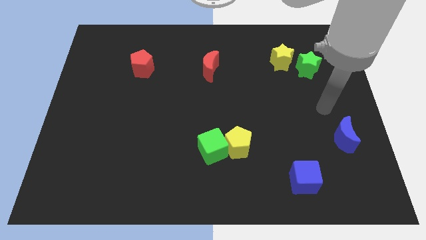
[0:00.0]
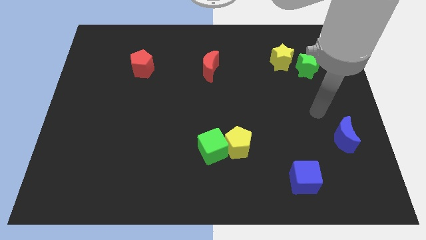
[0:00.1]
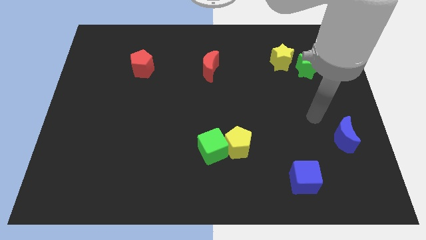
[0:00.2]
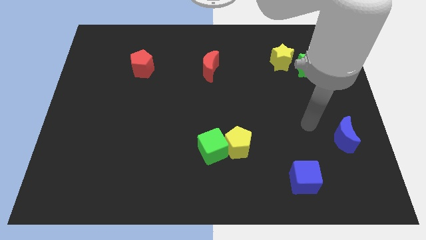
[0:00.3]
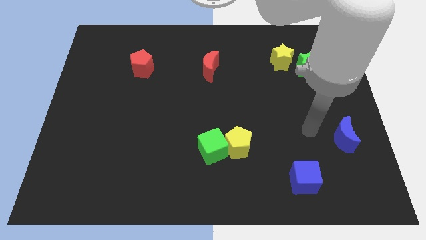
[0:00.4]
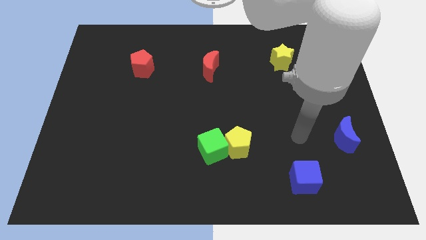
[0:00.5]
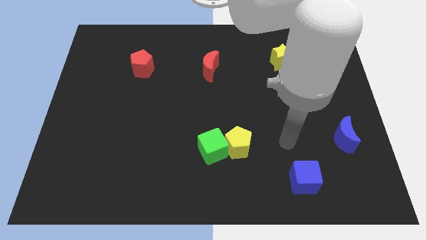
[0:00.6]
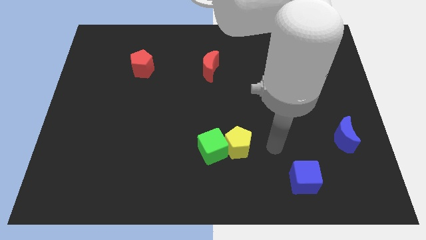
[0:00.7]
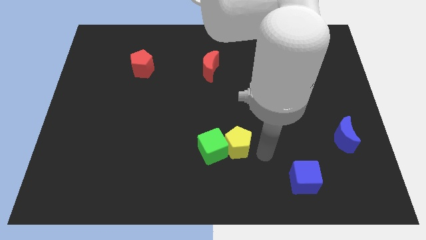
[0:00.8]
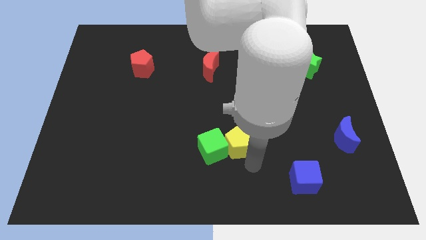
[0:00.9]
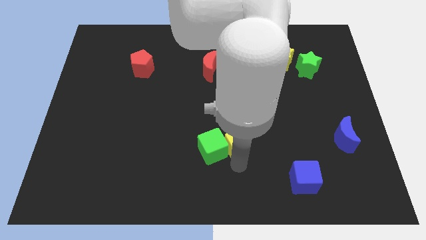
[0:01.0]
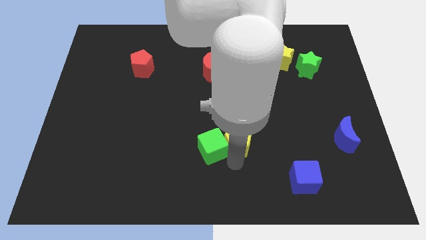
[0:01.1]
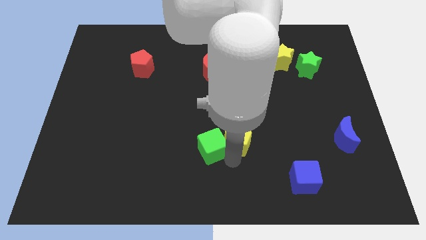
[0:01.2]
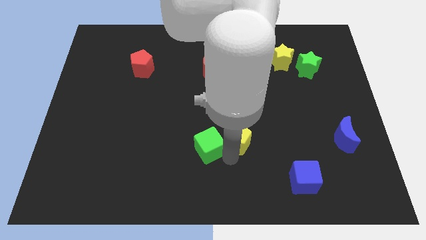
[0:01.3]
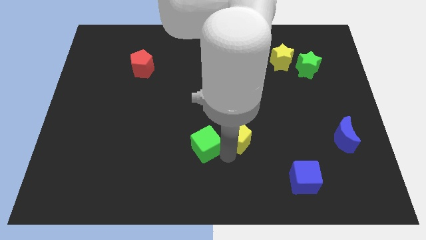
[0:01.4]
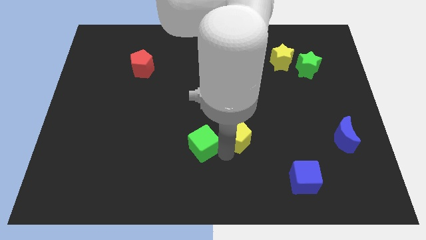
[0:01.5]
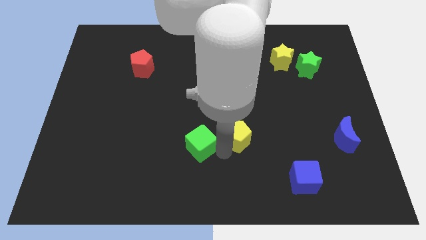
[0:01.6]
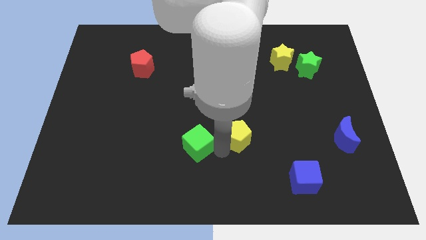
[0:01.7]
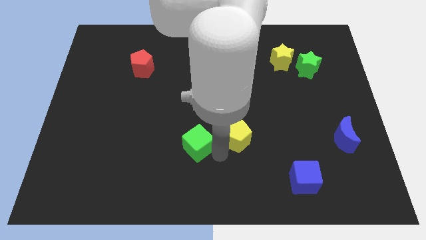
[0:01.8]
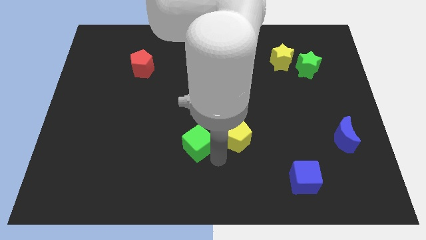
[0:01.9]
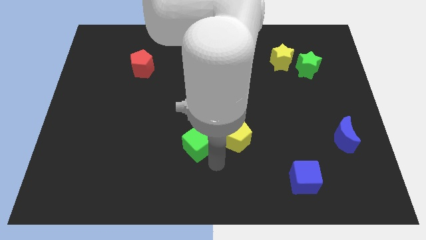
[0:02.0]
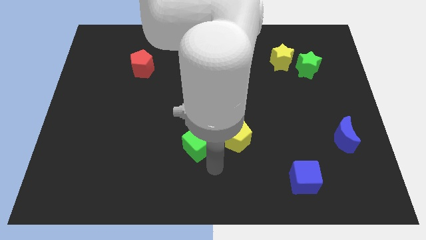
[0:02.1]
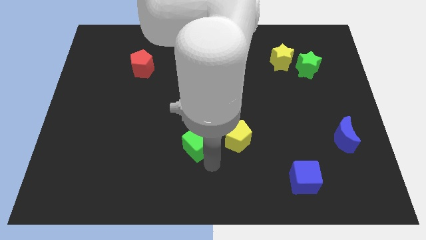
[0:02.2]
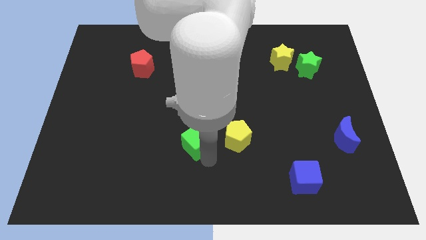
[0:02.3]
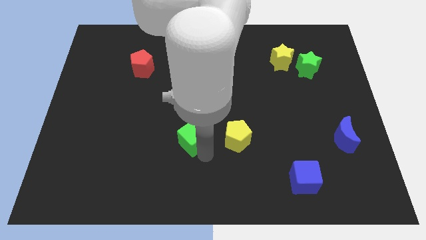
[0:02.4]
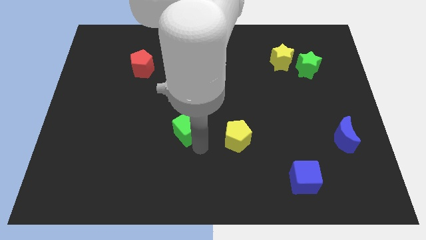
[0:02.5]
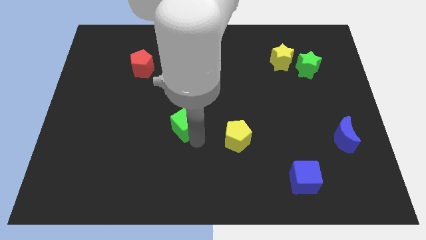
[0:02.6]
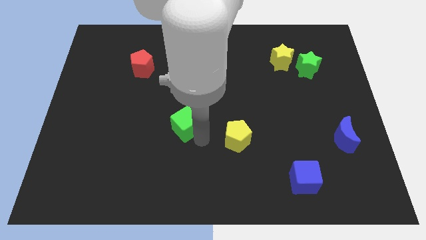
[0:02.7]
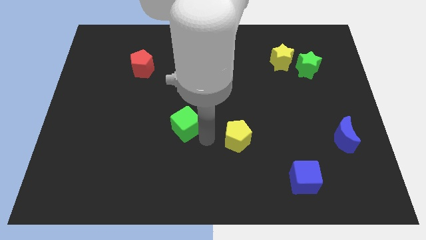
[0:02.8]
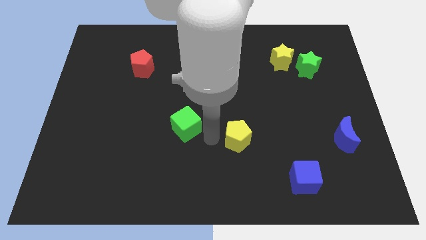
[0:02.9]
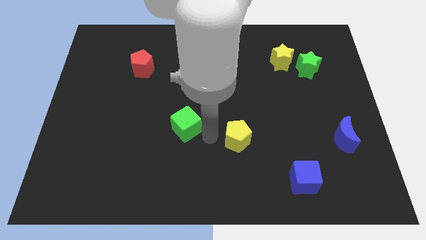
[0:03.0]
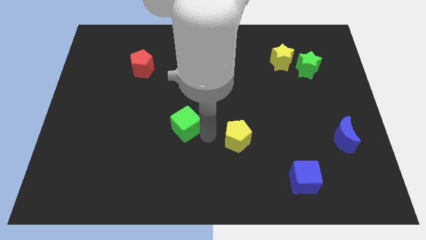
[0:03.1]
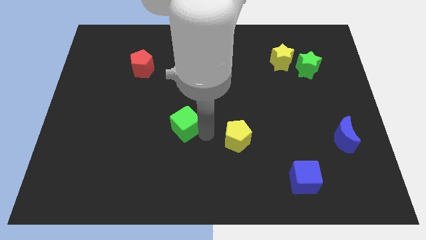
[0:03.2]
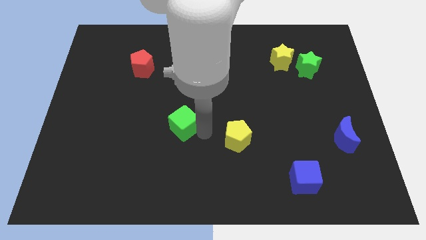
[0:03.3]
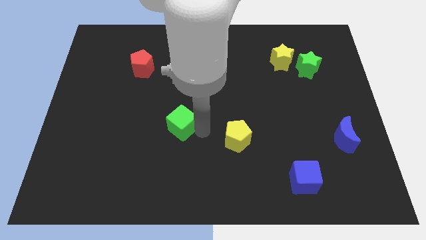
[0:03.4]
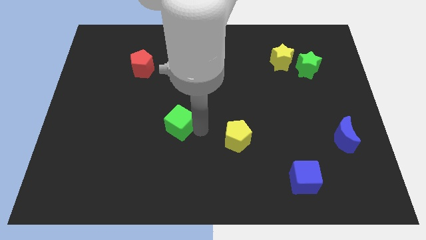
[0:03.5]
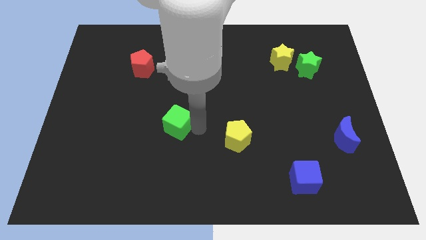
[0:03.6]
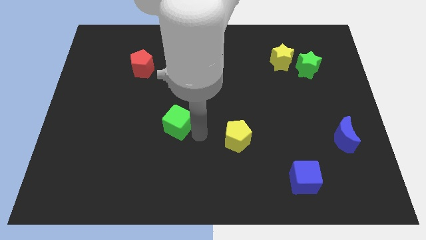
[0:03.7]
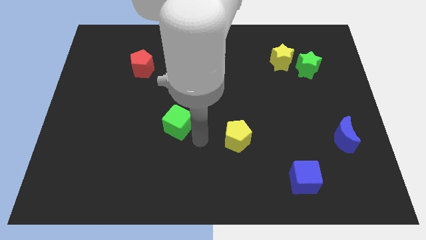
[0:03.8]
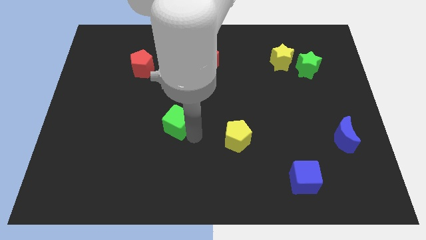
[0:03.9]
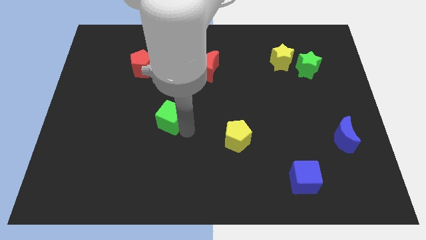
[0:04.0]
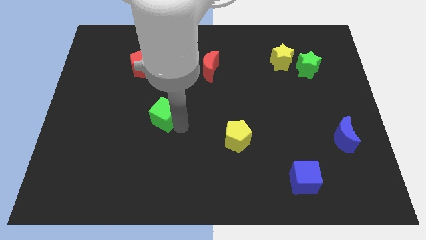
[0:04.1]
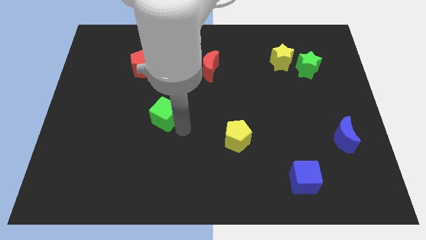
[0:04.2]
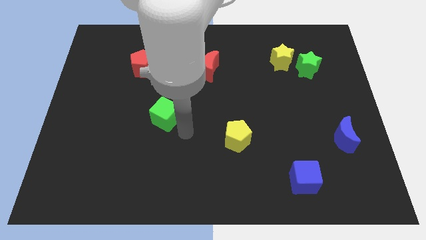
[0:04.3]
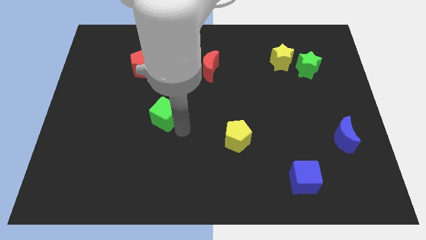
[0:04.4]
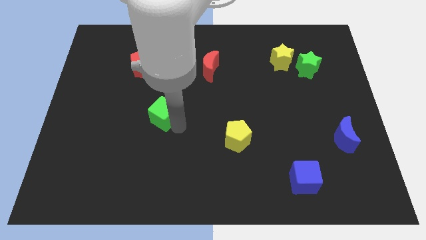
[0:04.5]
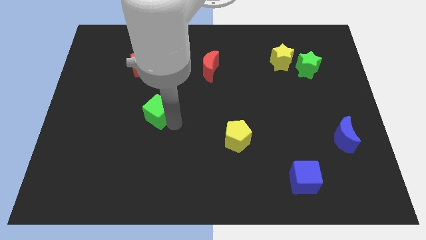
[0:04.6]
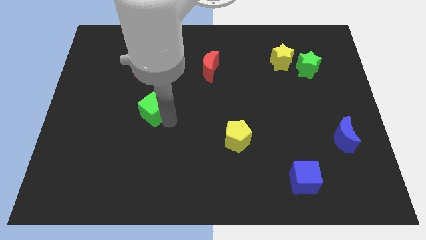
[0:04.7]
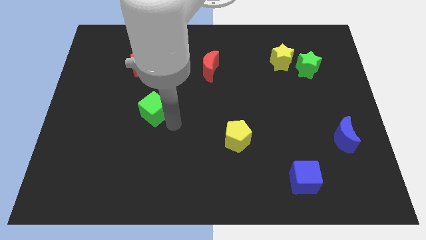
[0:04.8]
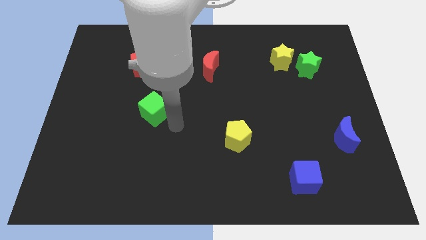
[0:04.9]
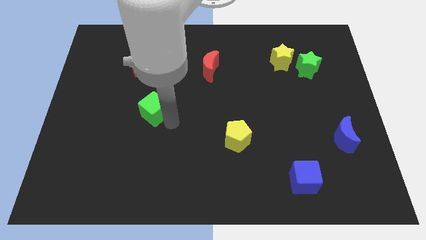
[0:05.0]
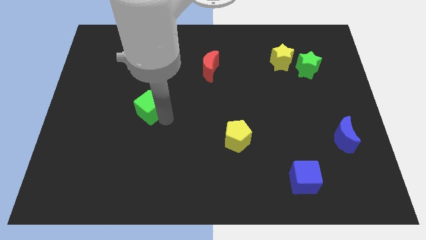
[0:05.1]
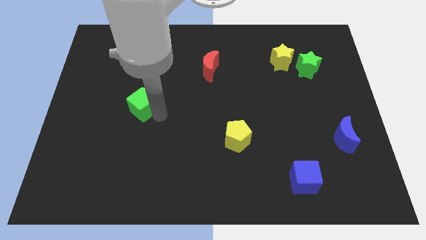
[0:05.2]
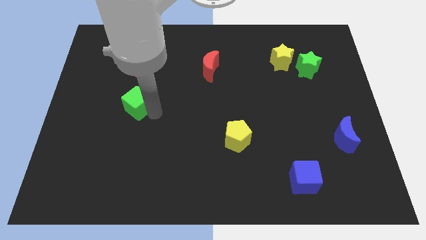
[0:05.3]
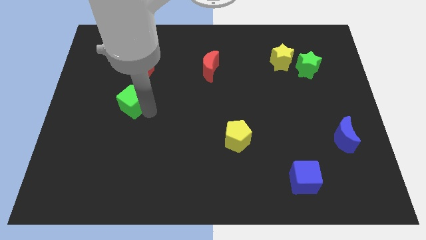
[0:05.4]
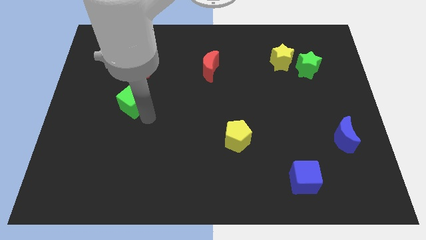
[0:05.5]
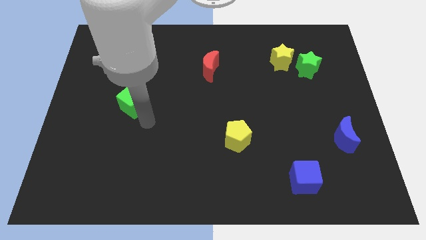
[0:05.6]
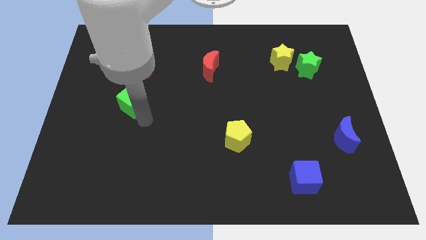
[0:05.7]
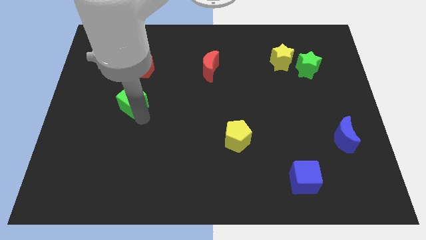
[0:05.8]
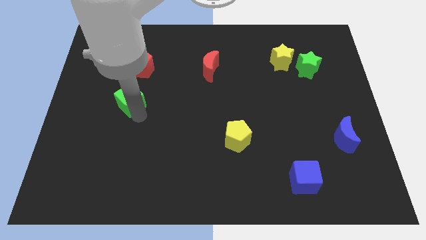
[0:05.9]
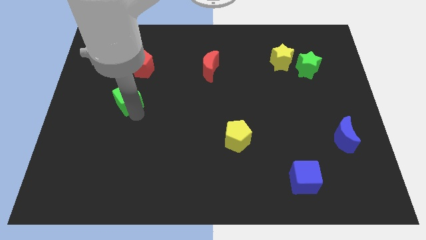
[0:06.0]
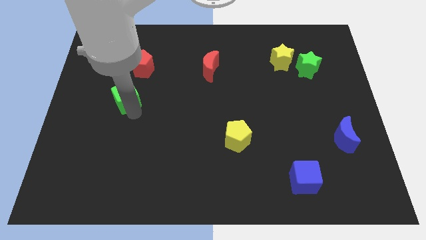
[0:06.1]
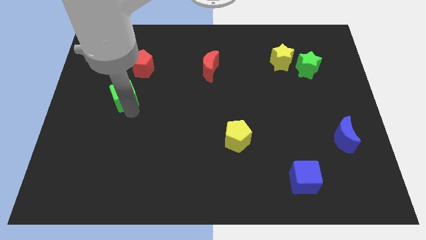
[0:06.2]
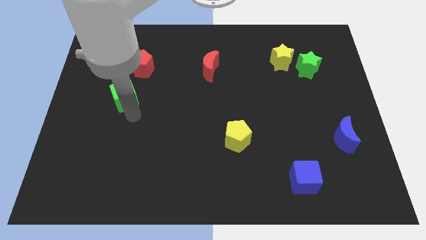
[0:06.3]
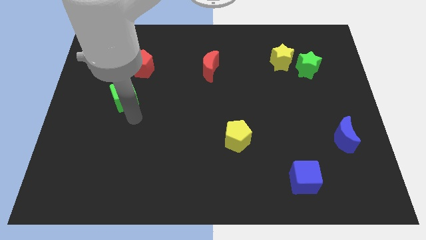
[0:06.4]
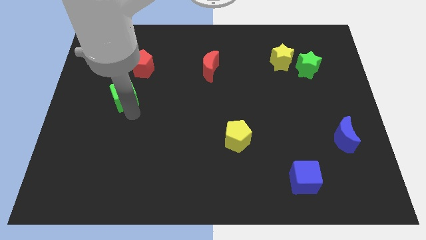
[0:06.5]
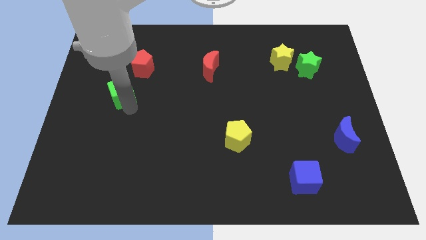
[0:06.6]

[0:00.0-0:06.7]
move the green cube to the bottom left side of the red pentagon
